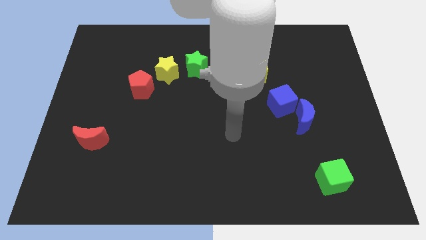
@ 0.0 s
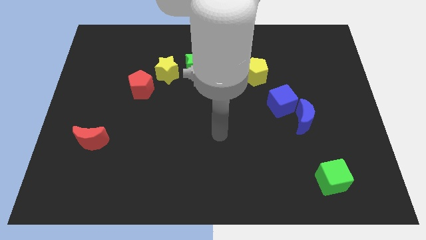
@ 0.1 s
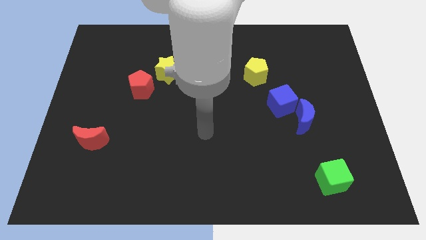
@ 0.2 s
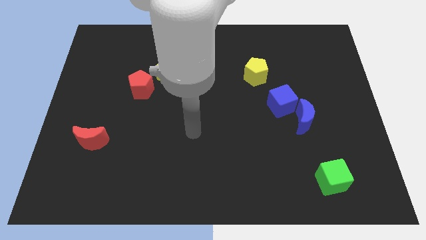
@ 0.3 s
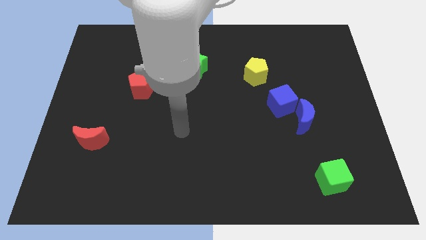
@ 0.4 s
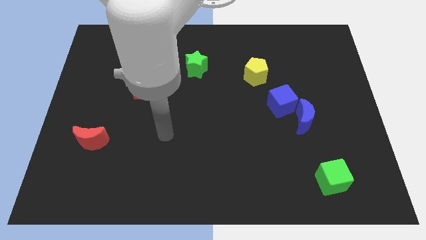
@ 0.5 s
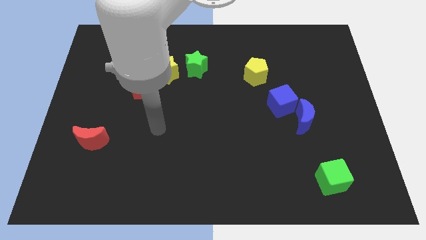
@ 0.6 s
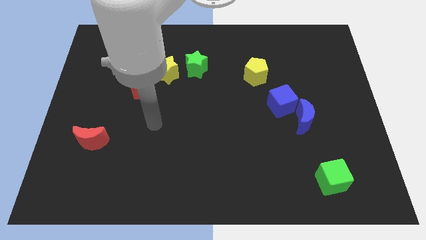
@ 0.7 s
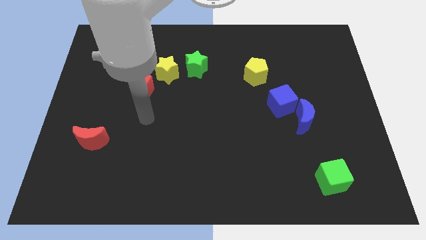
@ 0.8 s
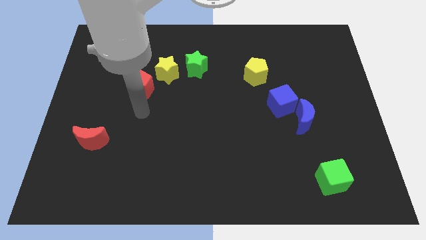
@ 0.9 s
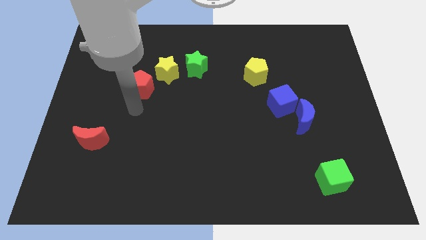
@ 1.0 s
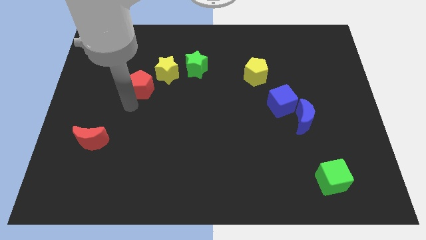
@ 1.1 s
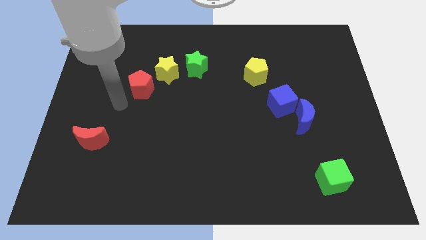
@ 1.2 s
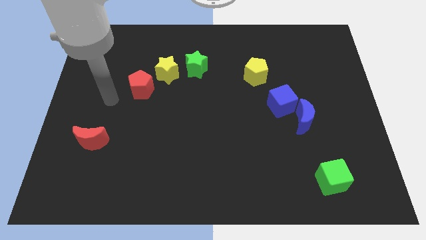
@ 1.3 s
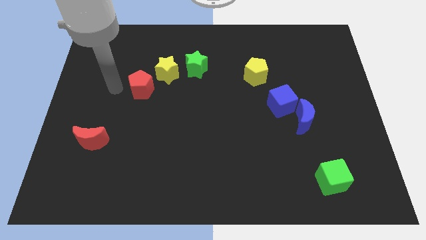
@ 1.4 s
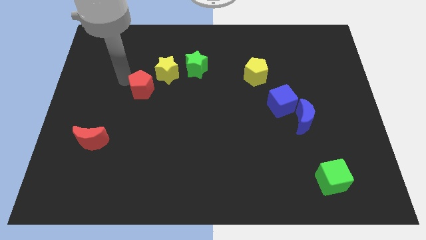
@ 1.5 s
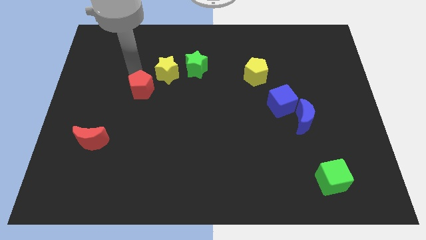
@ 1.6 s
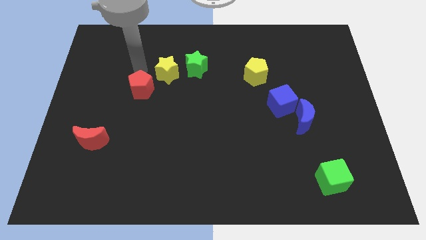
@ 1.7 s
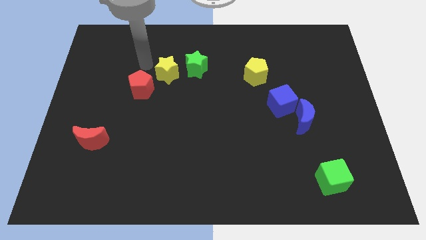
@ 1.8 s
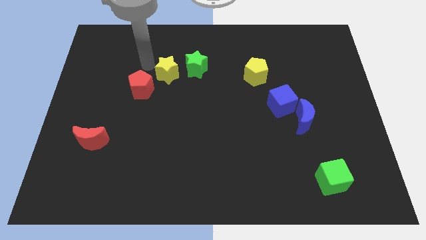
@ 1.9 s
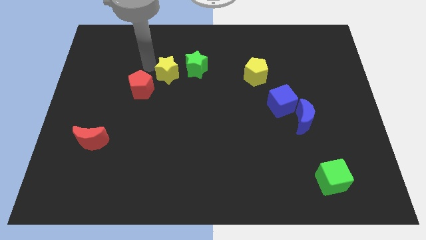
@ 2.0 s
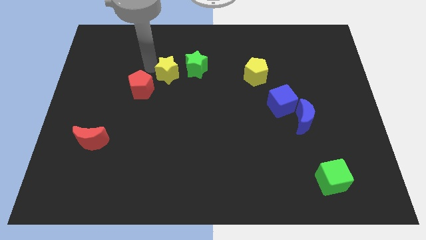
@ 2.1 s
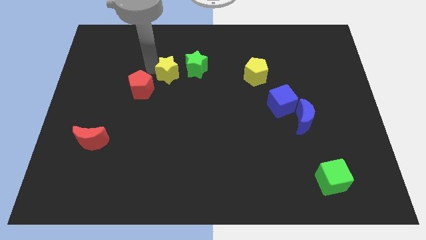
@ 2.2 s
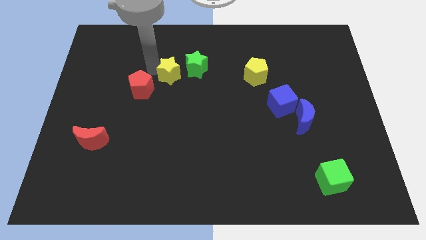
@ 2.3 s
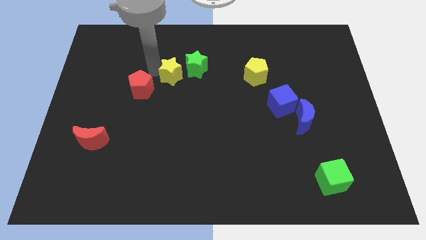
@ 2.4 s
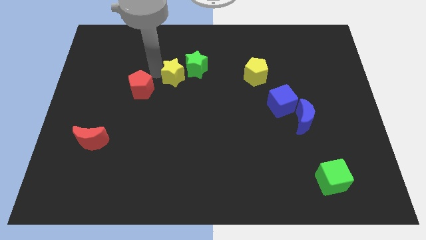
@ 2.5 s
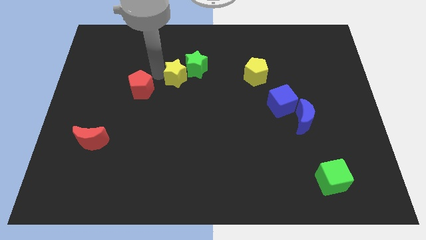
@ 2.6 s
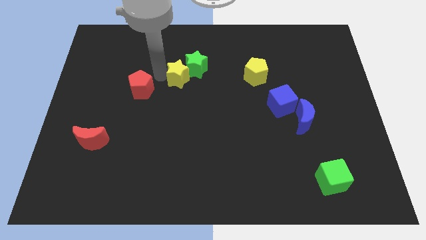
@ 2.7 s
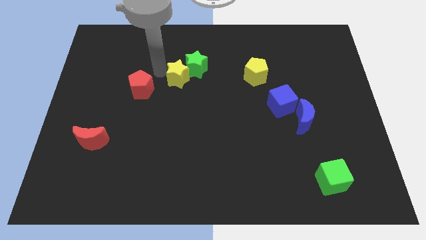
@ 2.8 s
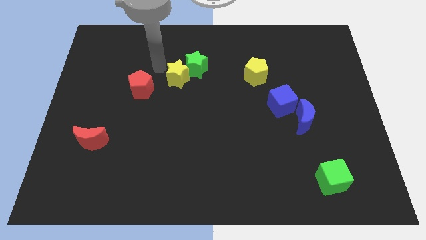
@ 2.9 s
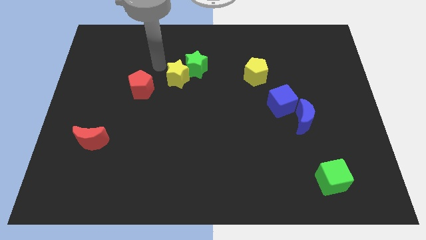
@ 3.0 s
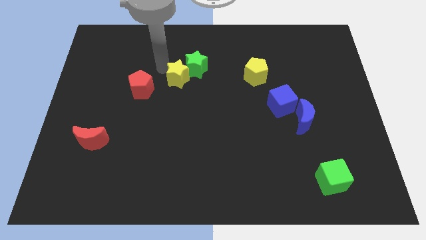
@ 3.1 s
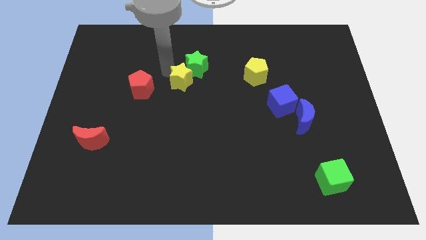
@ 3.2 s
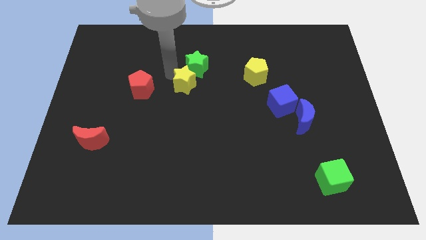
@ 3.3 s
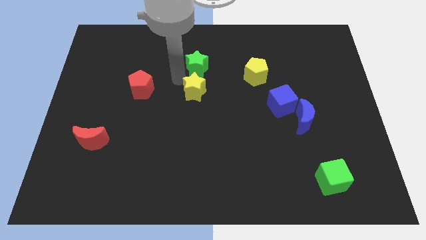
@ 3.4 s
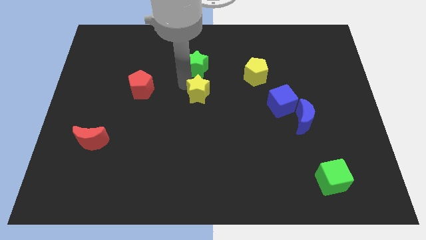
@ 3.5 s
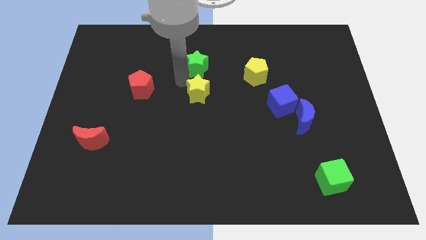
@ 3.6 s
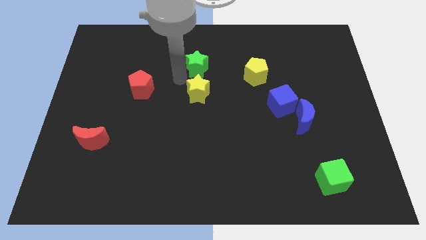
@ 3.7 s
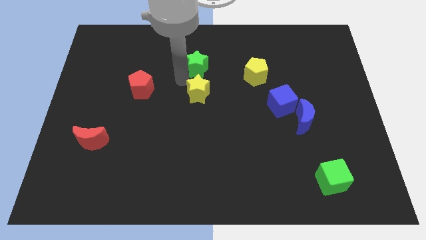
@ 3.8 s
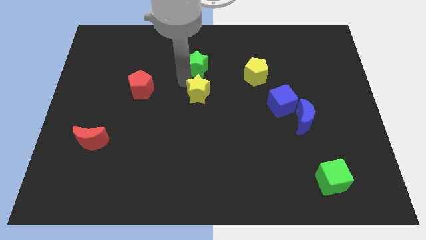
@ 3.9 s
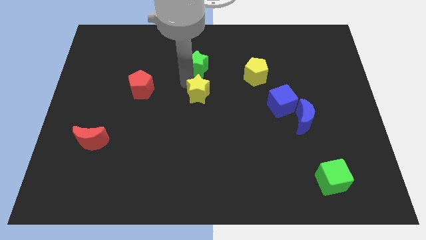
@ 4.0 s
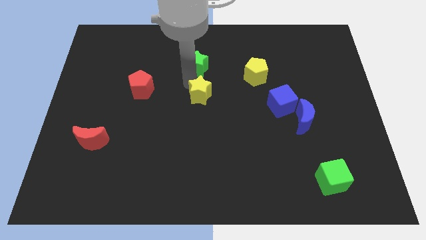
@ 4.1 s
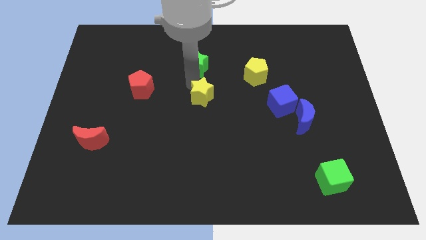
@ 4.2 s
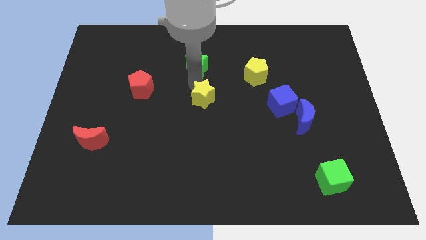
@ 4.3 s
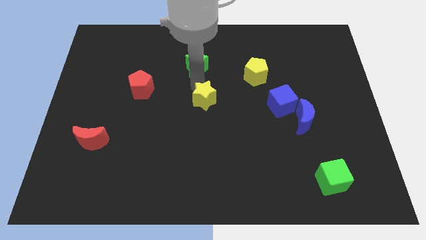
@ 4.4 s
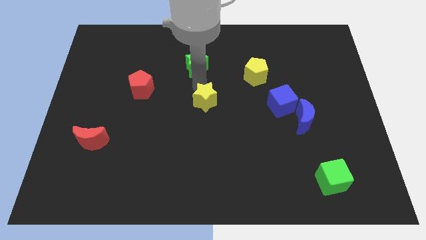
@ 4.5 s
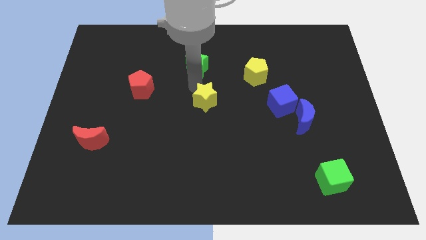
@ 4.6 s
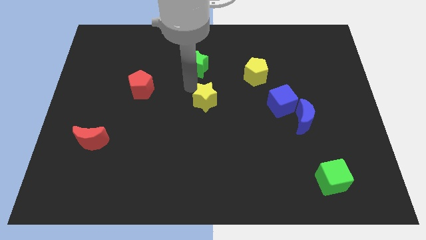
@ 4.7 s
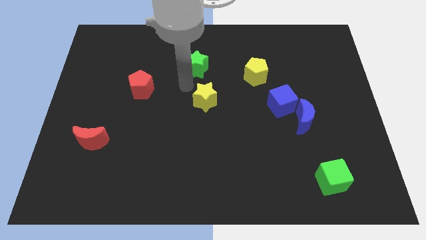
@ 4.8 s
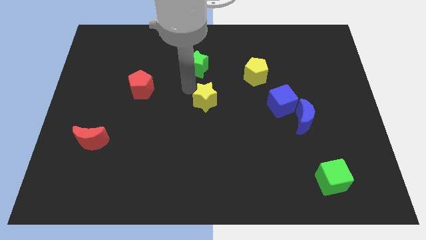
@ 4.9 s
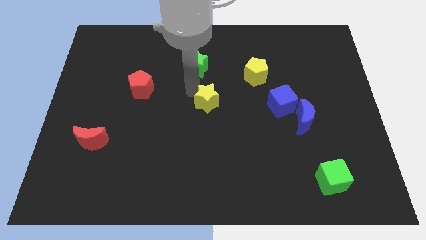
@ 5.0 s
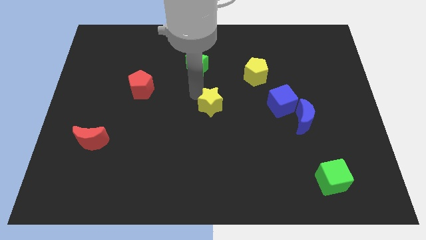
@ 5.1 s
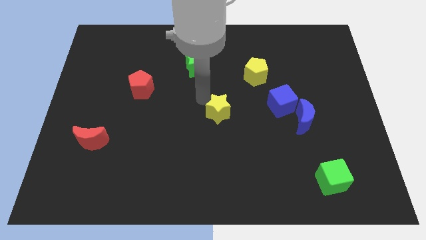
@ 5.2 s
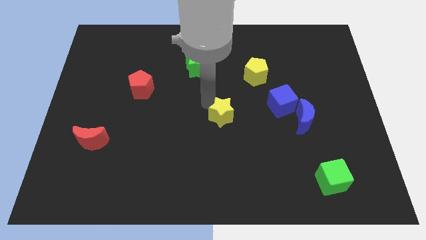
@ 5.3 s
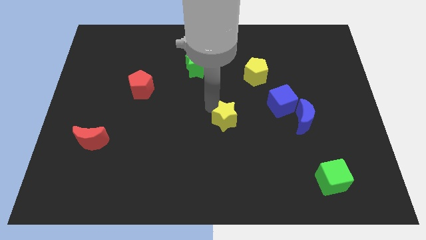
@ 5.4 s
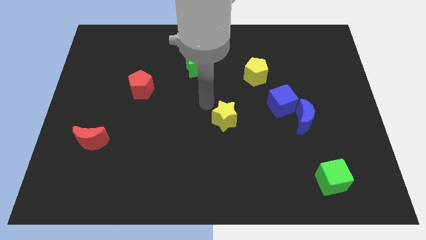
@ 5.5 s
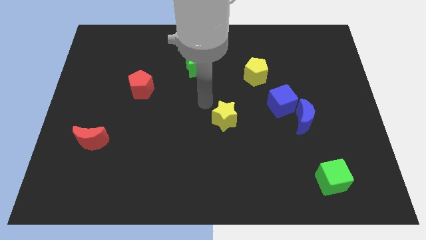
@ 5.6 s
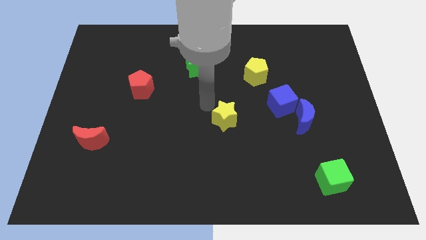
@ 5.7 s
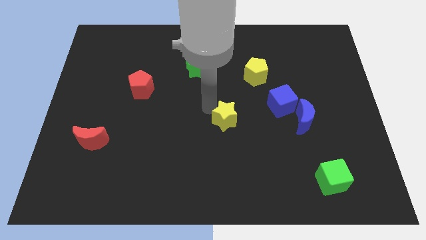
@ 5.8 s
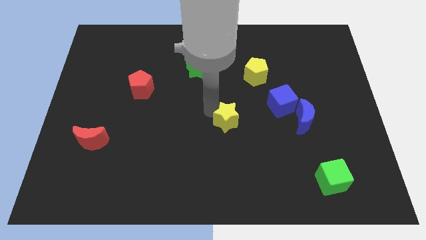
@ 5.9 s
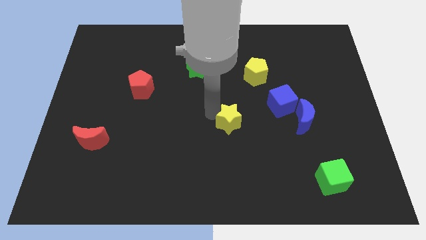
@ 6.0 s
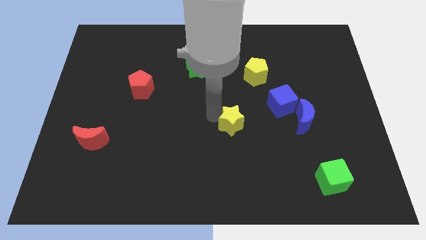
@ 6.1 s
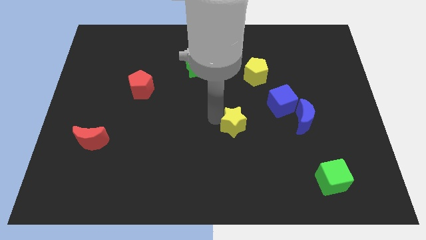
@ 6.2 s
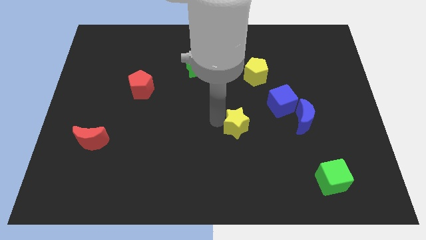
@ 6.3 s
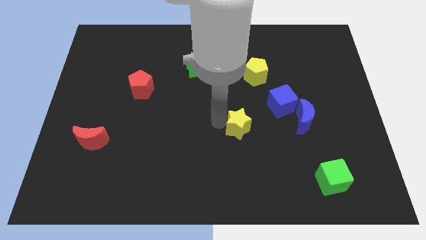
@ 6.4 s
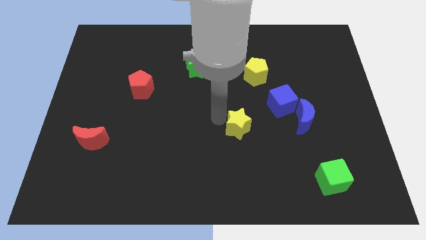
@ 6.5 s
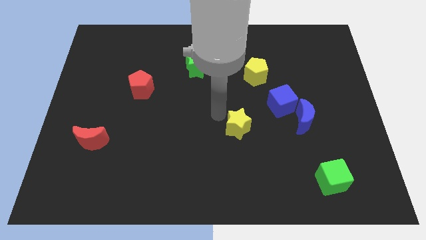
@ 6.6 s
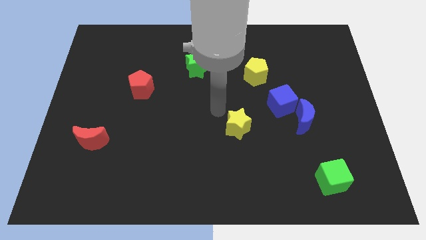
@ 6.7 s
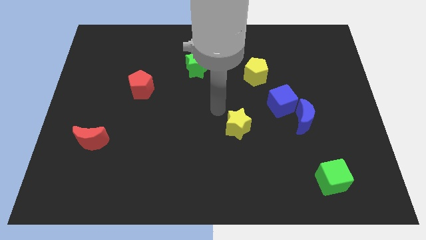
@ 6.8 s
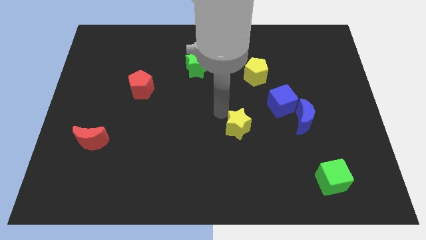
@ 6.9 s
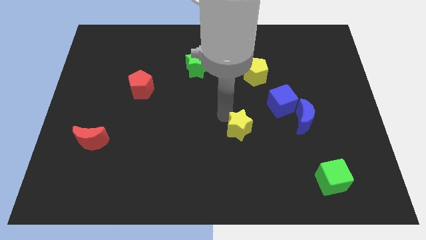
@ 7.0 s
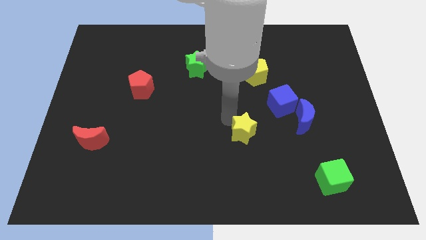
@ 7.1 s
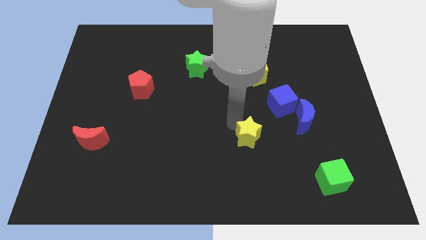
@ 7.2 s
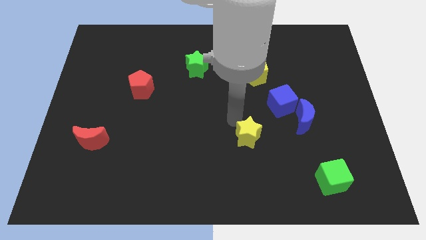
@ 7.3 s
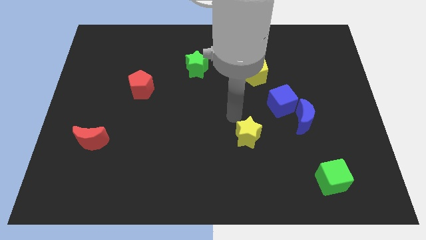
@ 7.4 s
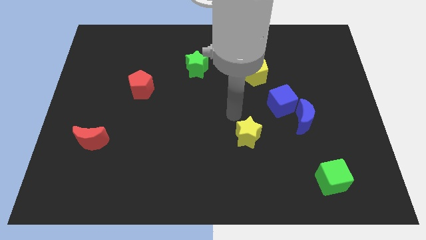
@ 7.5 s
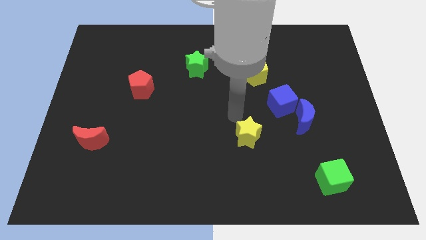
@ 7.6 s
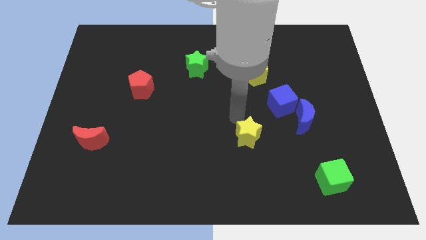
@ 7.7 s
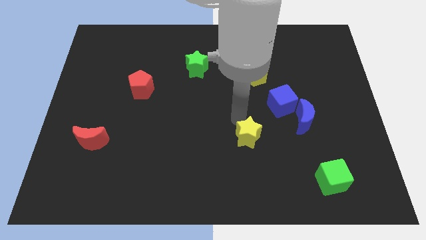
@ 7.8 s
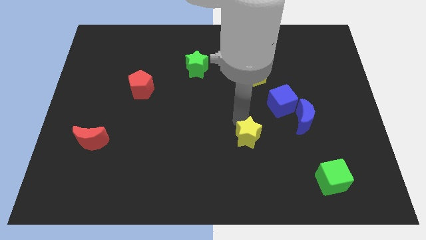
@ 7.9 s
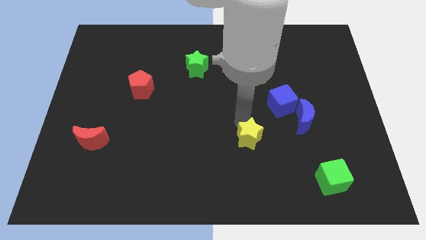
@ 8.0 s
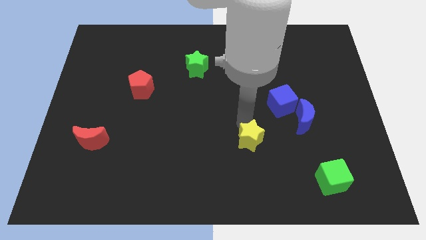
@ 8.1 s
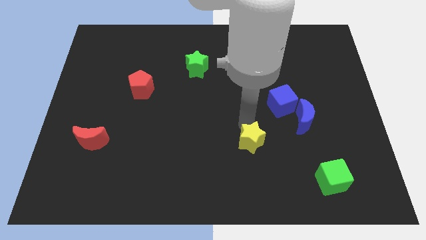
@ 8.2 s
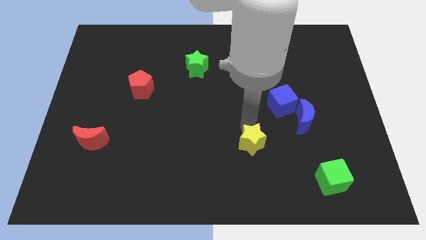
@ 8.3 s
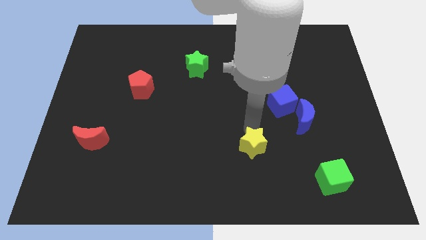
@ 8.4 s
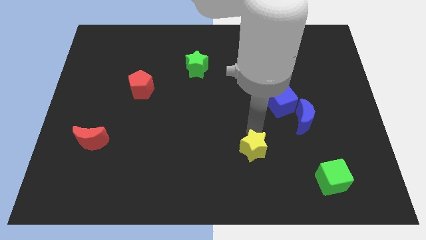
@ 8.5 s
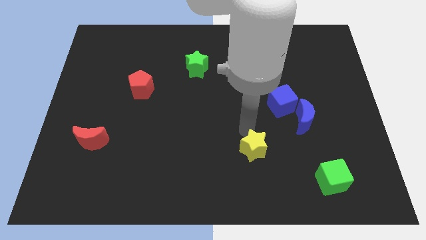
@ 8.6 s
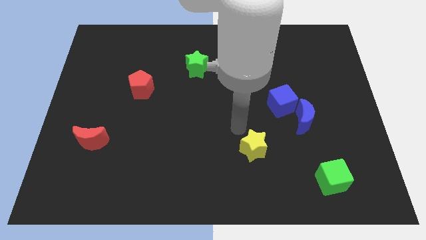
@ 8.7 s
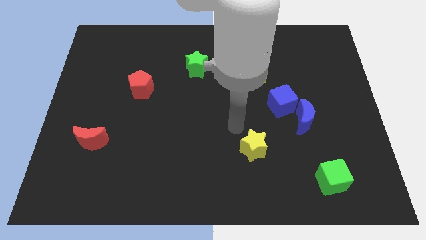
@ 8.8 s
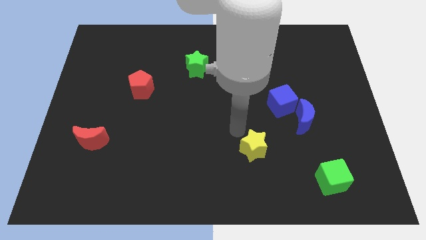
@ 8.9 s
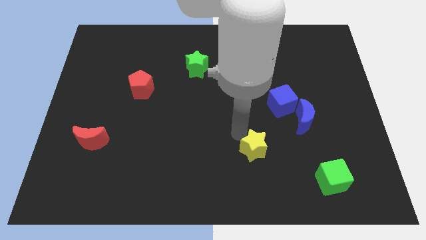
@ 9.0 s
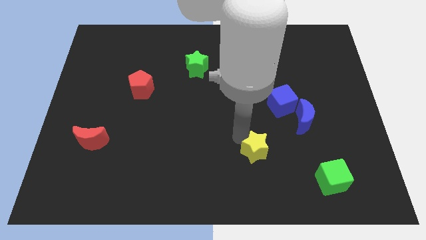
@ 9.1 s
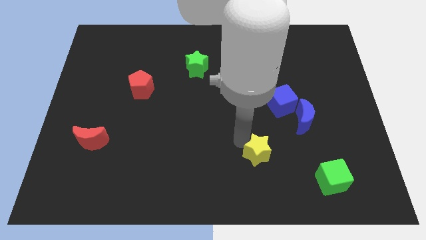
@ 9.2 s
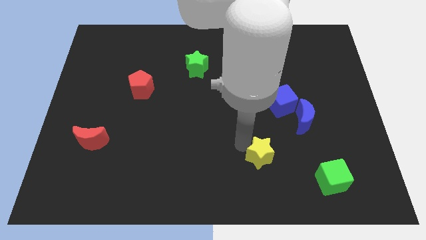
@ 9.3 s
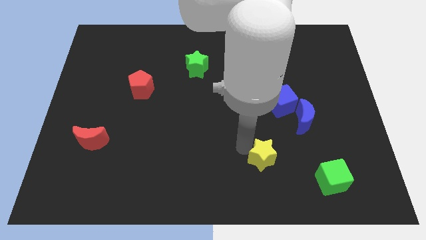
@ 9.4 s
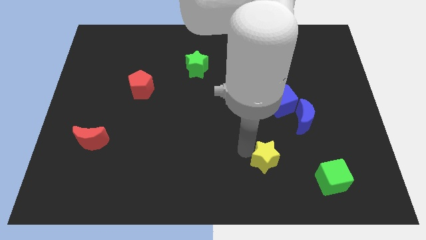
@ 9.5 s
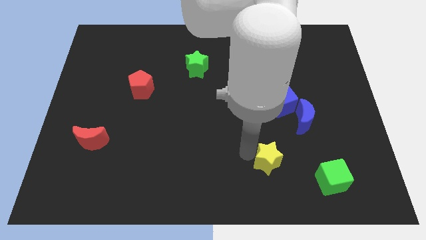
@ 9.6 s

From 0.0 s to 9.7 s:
put the yellow star just left of the green cube
